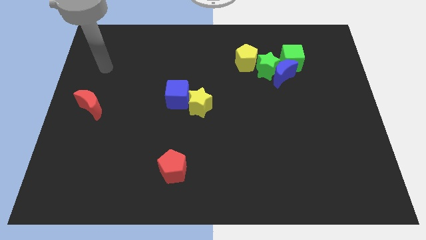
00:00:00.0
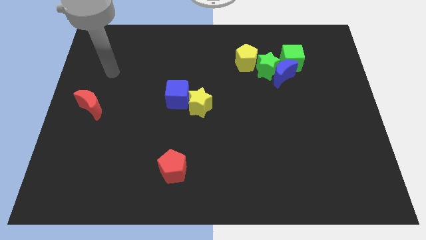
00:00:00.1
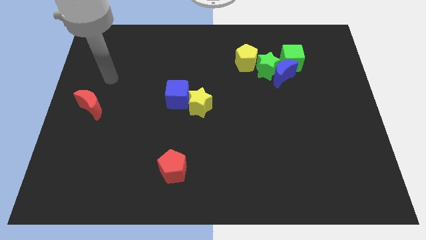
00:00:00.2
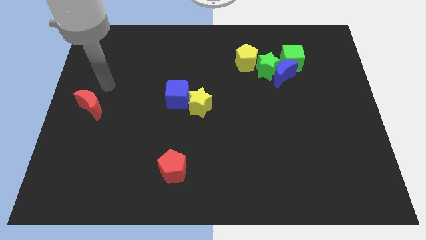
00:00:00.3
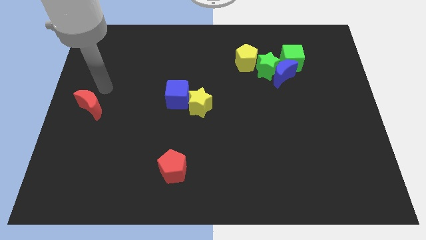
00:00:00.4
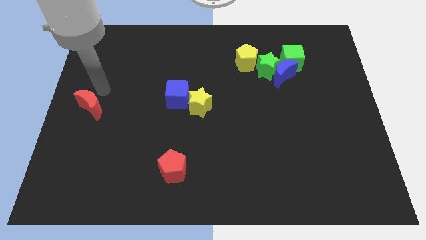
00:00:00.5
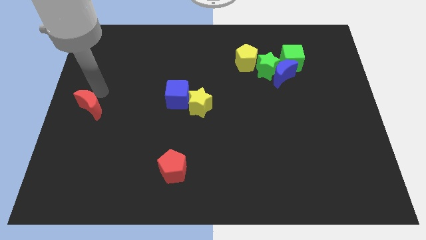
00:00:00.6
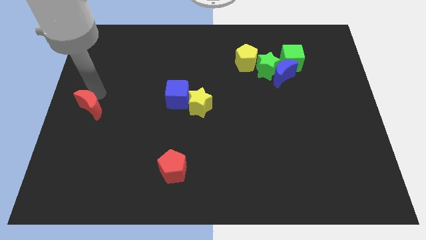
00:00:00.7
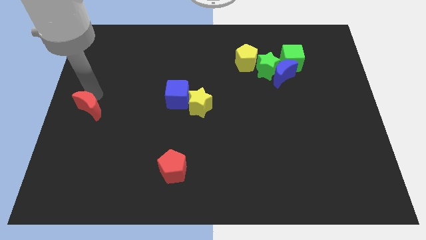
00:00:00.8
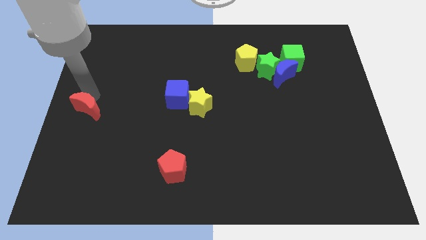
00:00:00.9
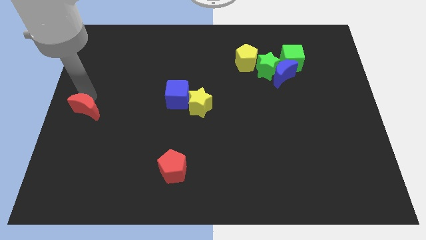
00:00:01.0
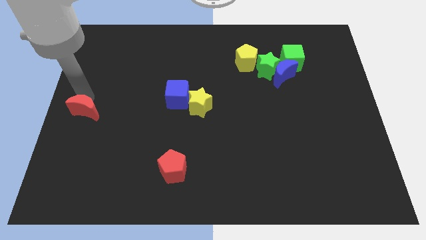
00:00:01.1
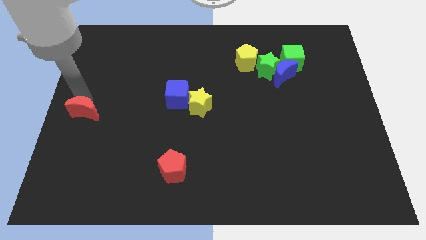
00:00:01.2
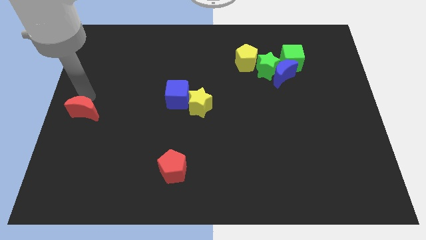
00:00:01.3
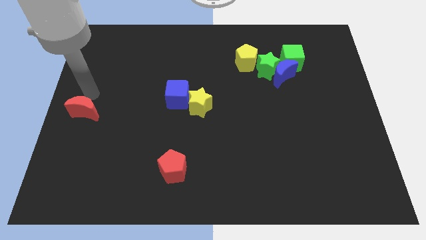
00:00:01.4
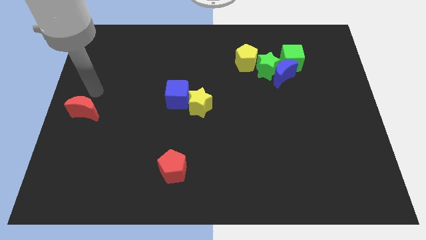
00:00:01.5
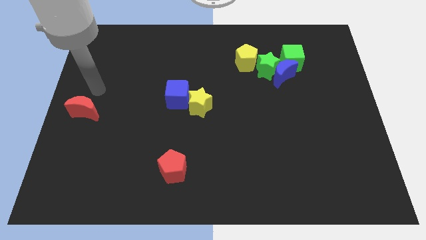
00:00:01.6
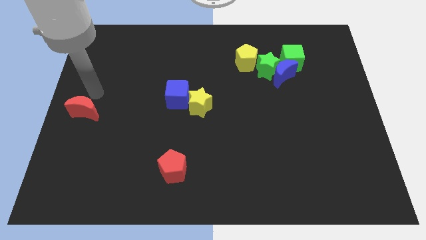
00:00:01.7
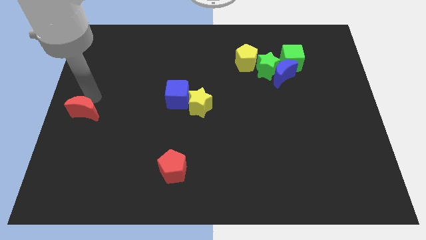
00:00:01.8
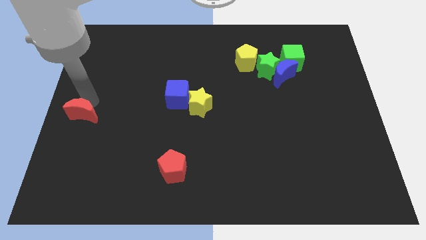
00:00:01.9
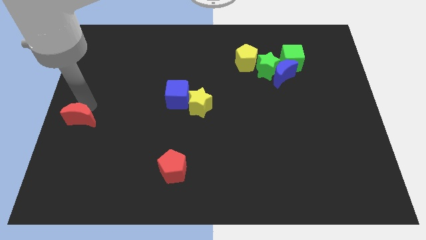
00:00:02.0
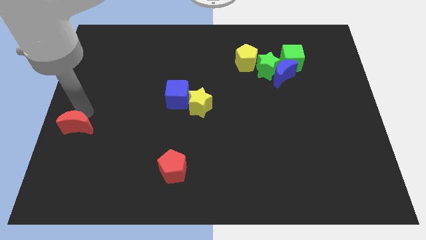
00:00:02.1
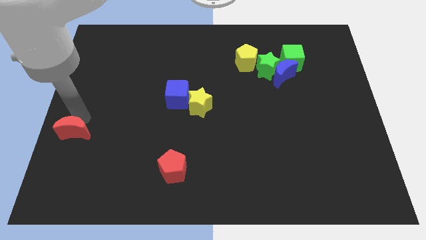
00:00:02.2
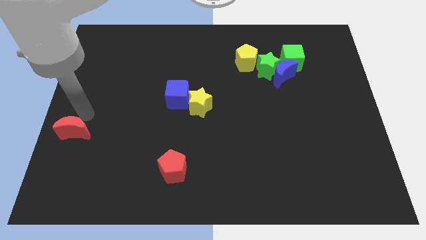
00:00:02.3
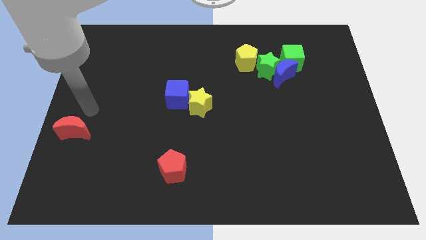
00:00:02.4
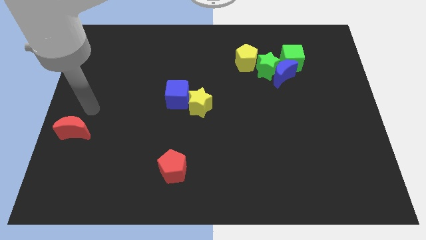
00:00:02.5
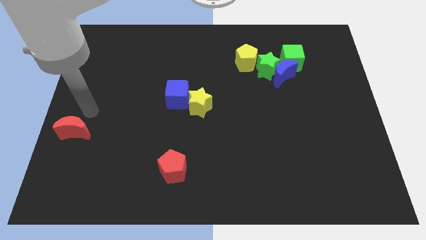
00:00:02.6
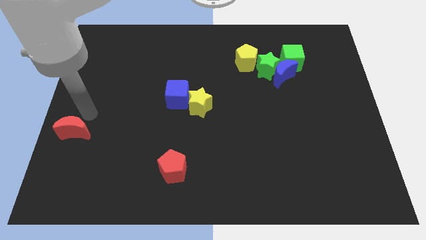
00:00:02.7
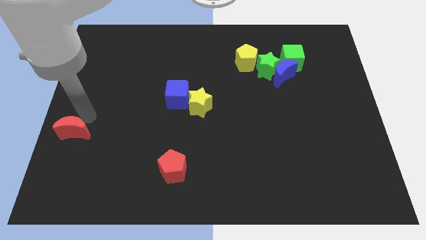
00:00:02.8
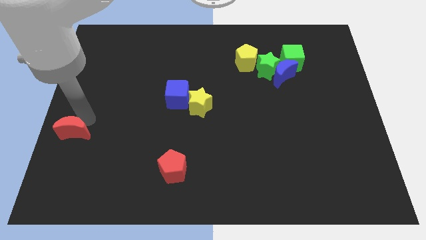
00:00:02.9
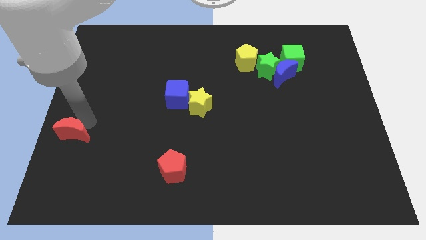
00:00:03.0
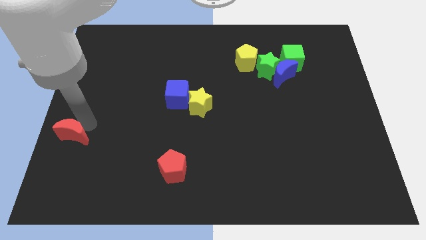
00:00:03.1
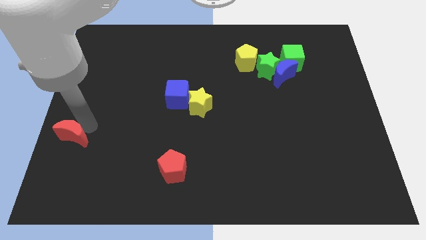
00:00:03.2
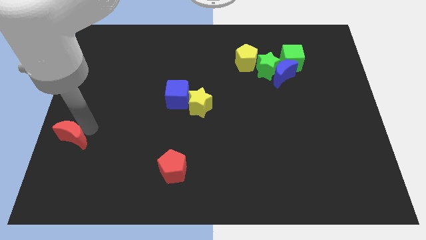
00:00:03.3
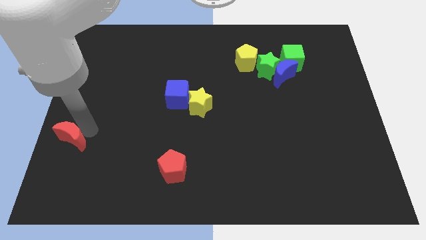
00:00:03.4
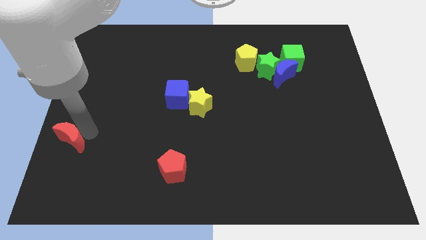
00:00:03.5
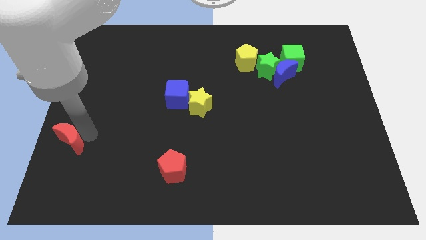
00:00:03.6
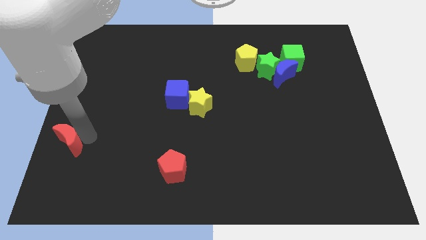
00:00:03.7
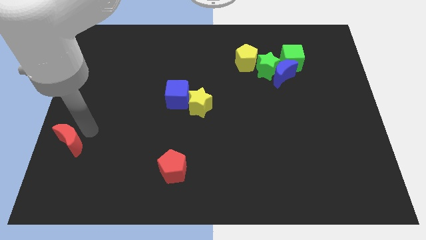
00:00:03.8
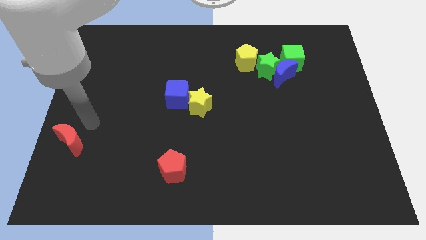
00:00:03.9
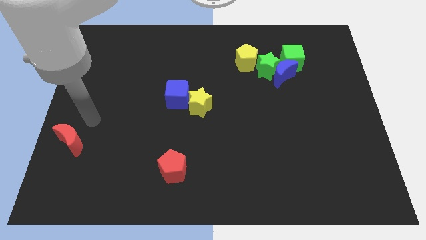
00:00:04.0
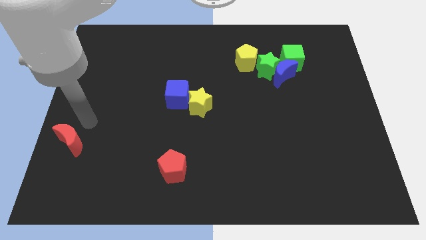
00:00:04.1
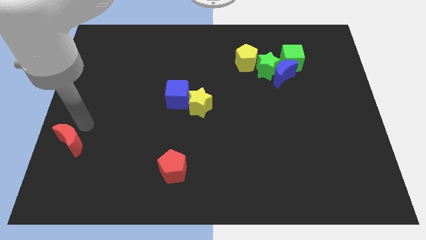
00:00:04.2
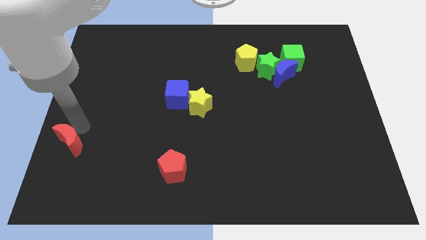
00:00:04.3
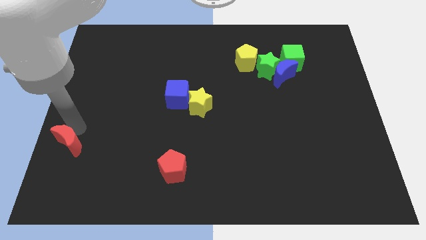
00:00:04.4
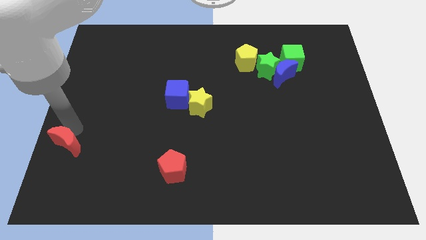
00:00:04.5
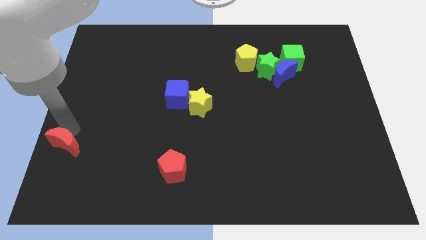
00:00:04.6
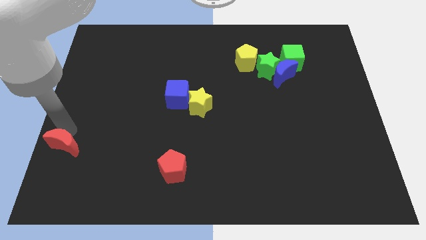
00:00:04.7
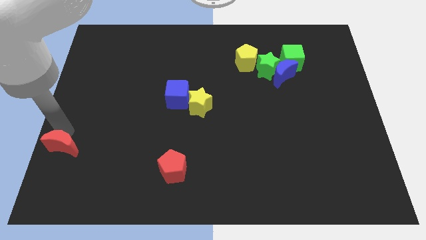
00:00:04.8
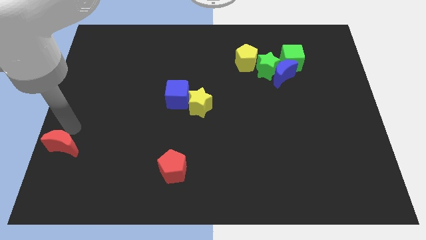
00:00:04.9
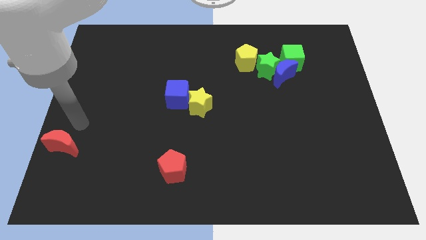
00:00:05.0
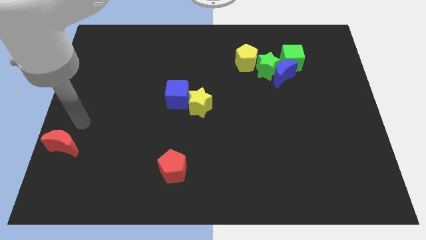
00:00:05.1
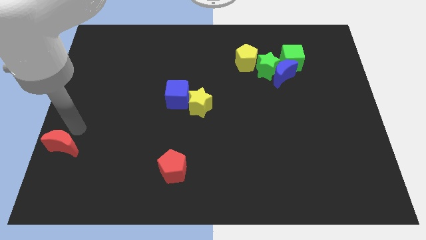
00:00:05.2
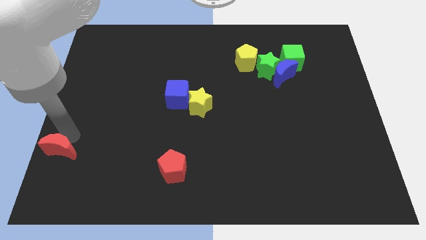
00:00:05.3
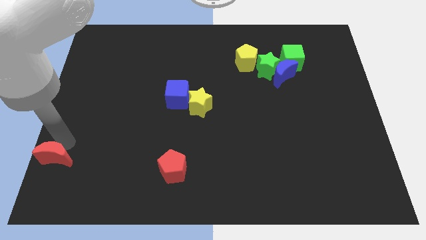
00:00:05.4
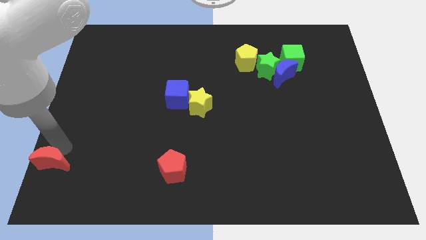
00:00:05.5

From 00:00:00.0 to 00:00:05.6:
push the red moon to the bottom left
